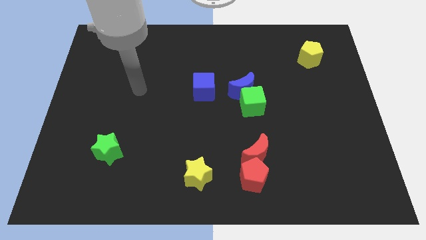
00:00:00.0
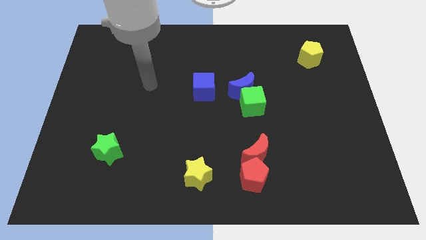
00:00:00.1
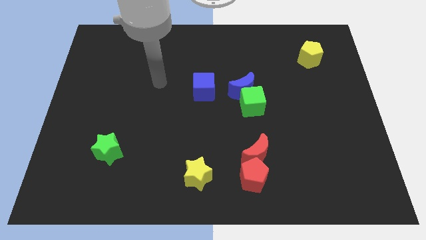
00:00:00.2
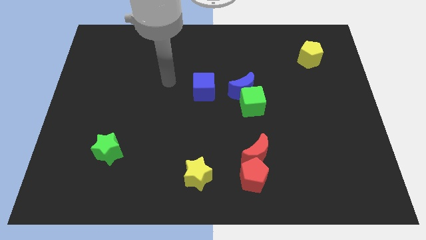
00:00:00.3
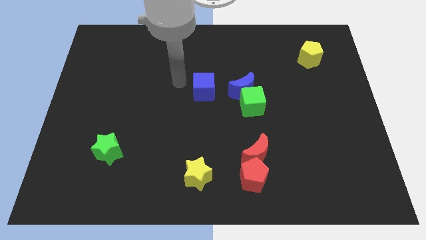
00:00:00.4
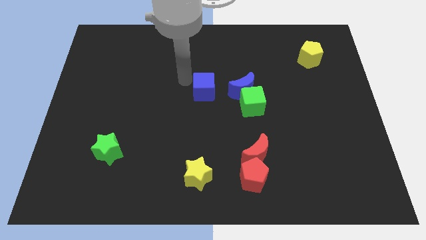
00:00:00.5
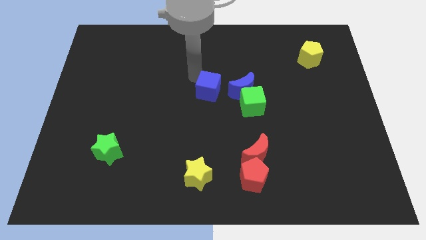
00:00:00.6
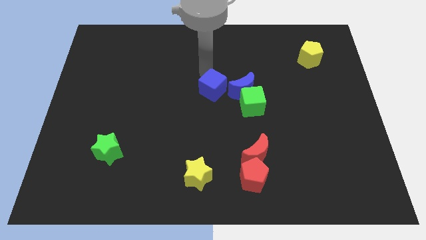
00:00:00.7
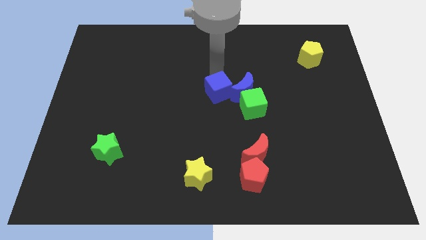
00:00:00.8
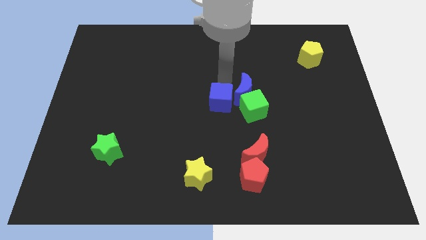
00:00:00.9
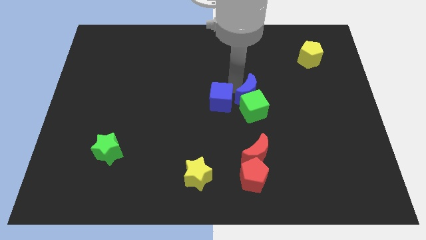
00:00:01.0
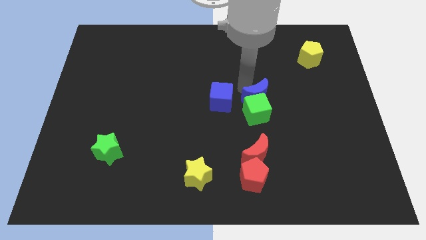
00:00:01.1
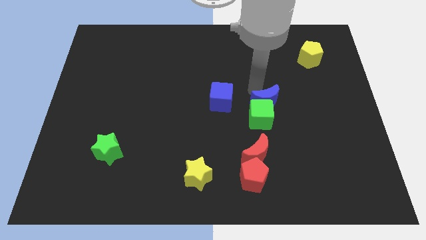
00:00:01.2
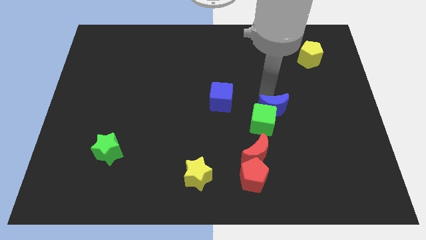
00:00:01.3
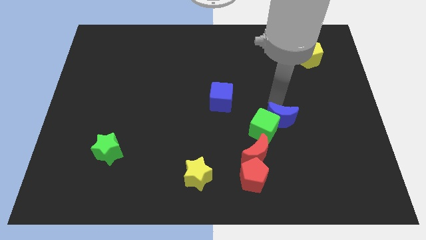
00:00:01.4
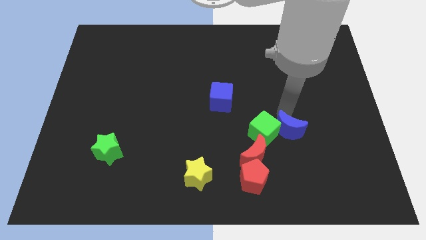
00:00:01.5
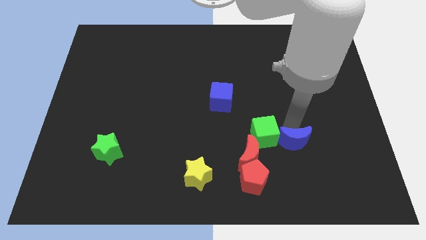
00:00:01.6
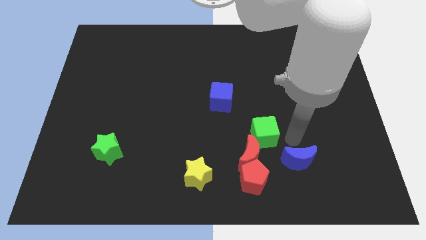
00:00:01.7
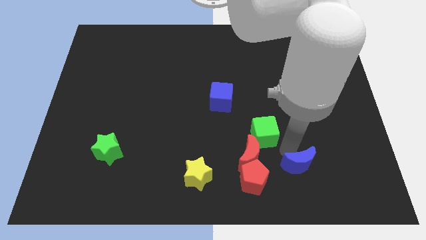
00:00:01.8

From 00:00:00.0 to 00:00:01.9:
separate the green cube from the blue moon

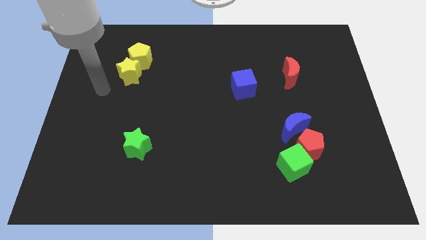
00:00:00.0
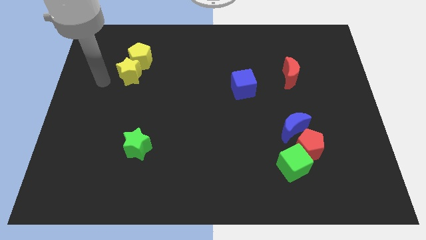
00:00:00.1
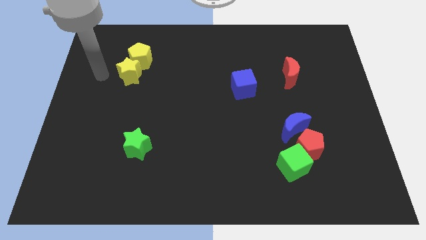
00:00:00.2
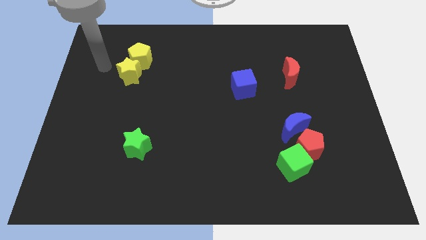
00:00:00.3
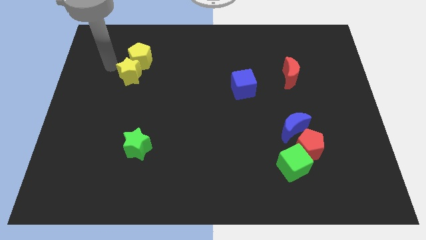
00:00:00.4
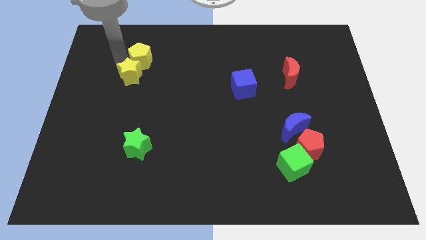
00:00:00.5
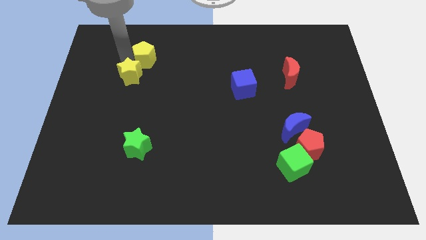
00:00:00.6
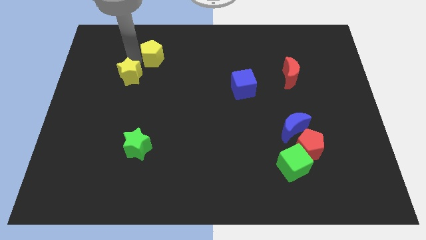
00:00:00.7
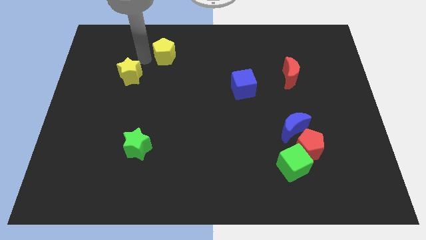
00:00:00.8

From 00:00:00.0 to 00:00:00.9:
separate the yellow star from the yellow pentagon

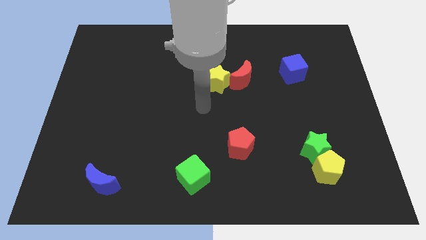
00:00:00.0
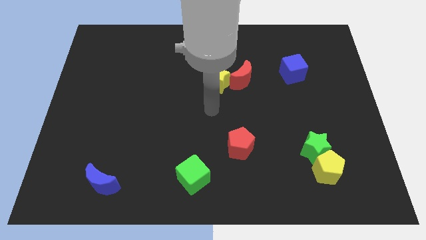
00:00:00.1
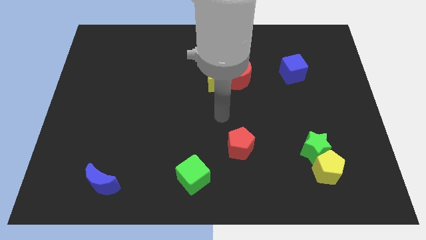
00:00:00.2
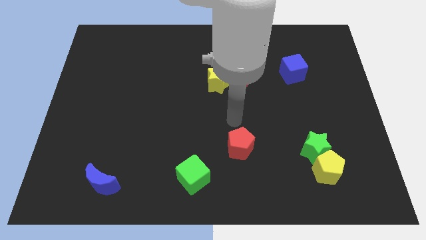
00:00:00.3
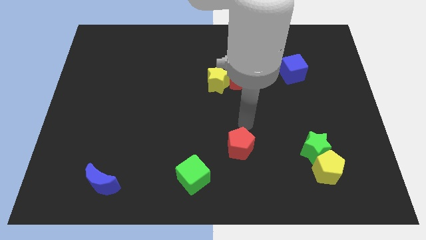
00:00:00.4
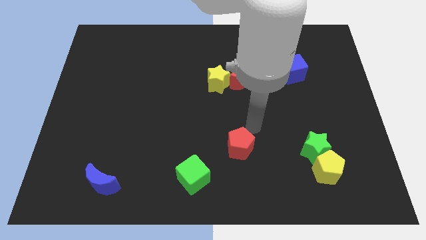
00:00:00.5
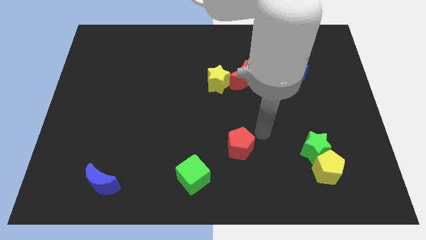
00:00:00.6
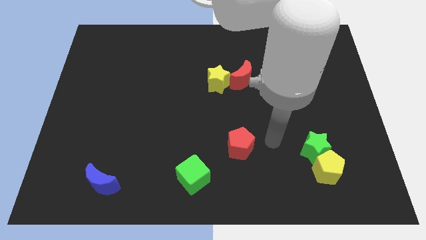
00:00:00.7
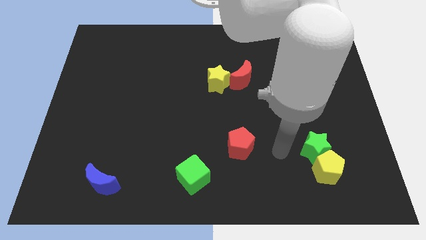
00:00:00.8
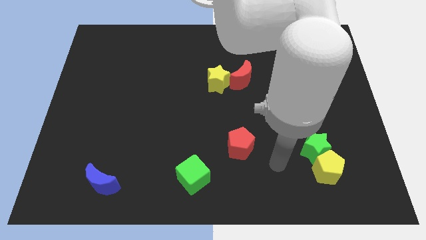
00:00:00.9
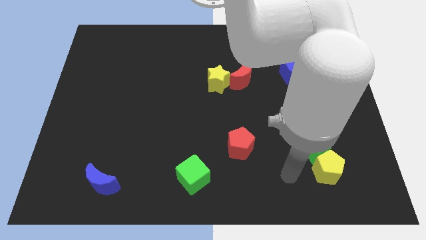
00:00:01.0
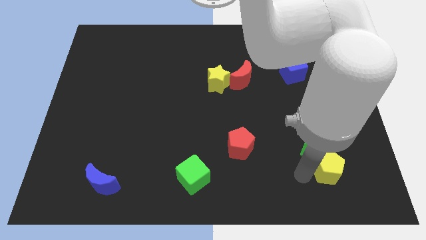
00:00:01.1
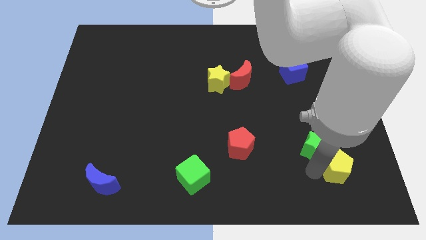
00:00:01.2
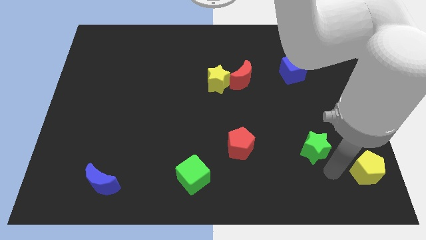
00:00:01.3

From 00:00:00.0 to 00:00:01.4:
pull the green star apart from the yellow pentagon

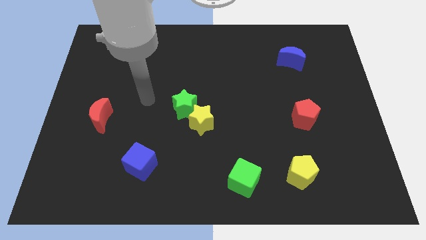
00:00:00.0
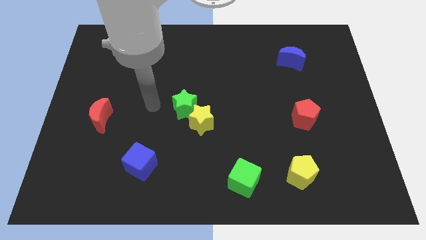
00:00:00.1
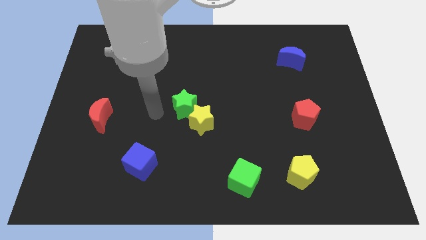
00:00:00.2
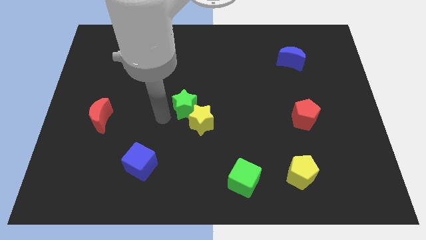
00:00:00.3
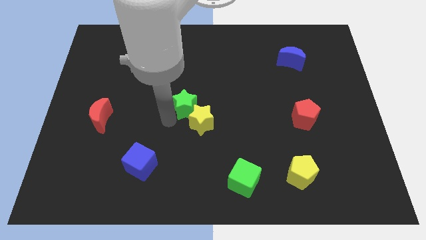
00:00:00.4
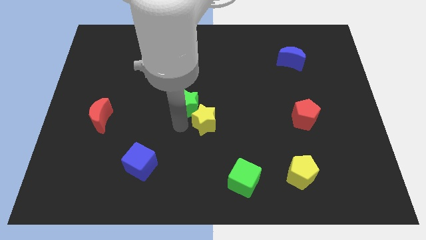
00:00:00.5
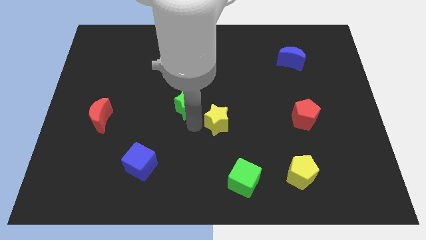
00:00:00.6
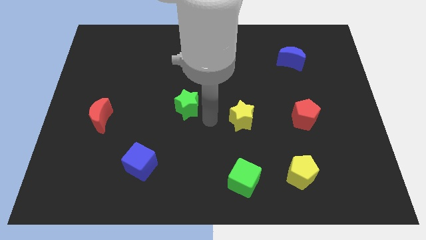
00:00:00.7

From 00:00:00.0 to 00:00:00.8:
pull the green star apart from the yellow star

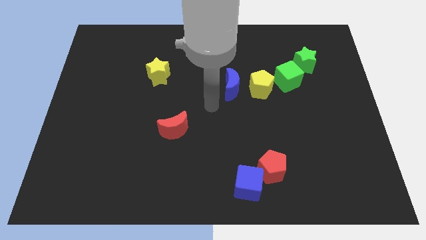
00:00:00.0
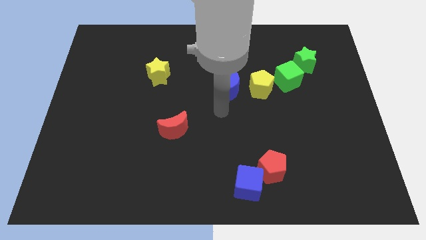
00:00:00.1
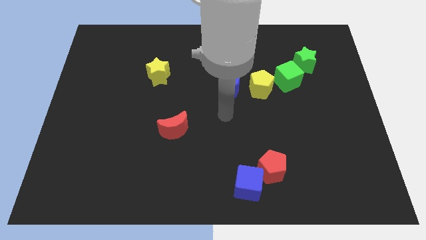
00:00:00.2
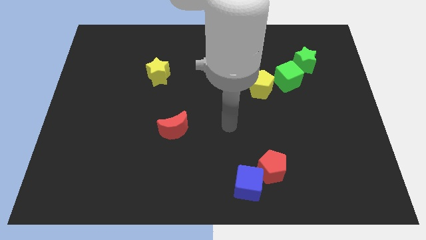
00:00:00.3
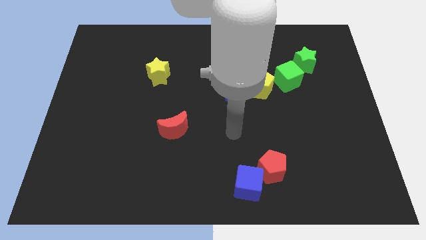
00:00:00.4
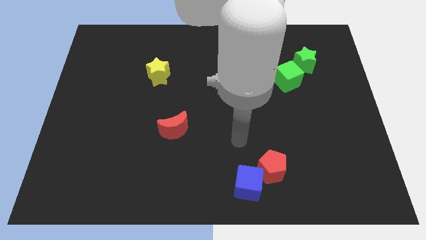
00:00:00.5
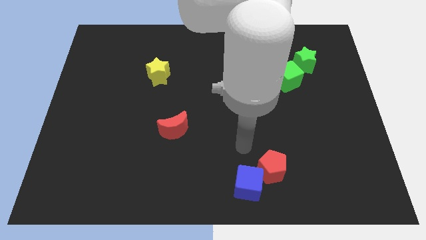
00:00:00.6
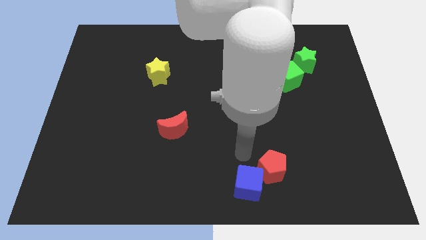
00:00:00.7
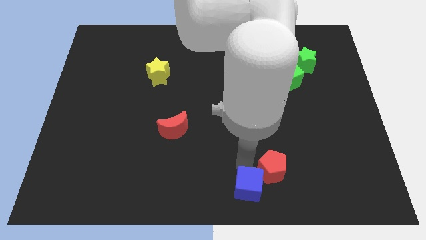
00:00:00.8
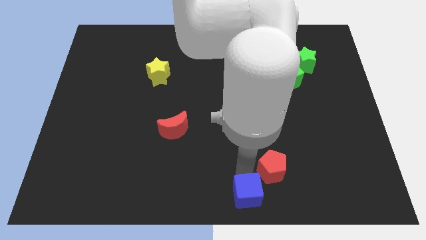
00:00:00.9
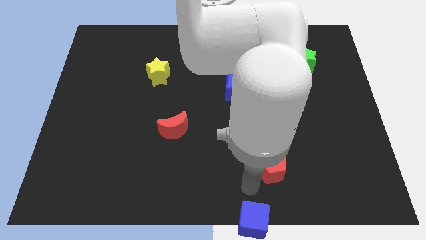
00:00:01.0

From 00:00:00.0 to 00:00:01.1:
move the red pentagon away from the blue cube

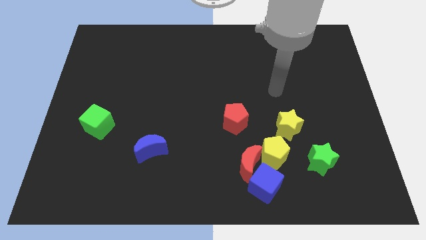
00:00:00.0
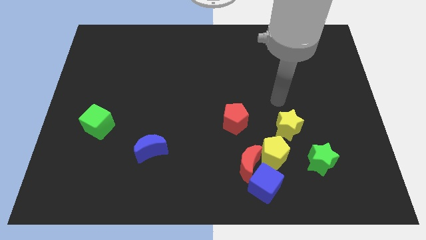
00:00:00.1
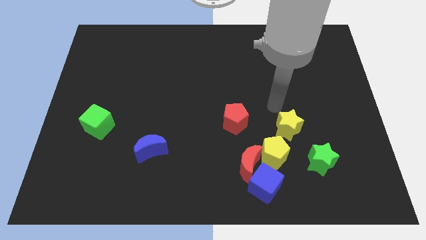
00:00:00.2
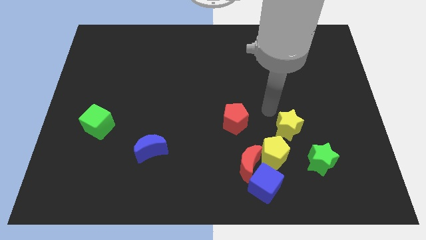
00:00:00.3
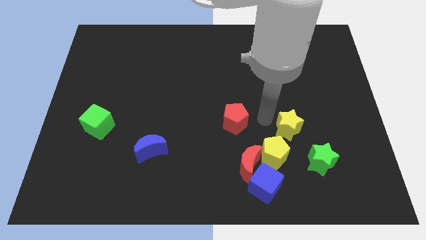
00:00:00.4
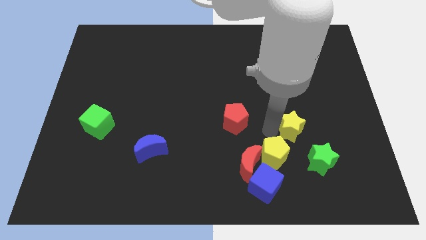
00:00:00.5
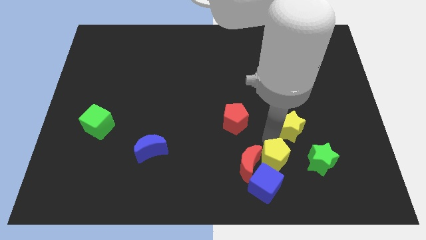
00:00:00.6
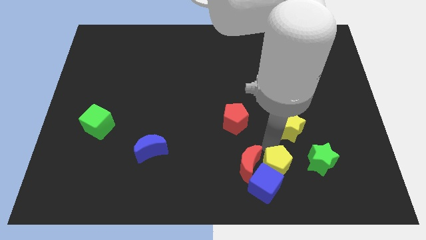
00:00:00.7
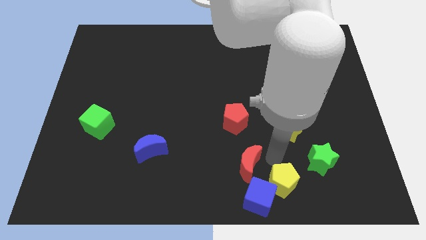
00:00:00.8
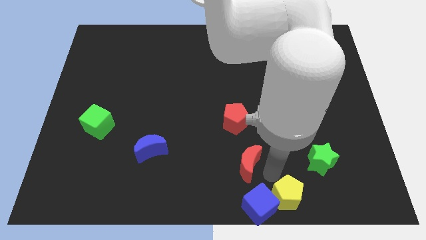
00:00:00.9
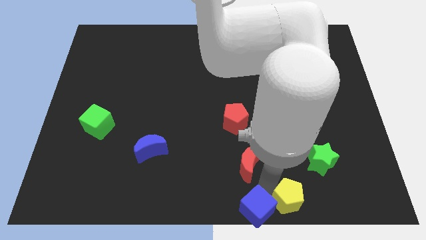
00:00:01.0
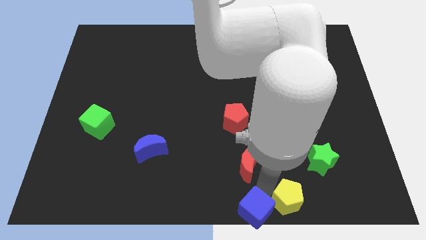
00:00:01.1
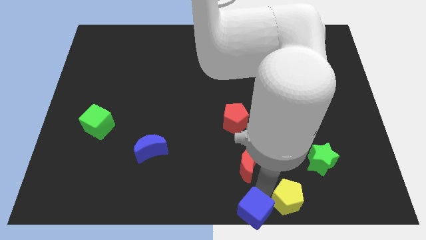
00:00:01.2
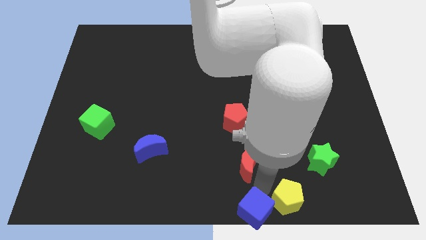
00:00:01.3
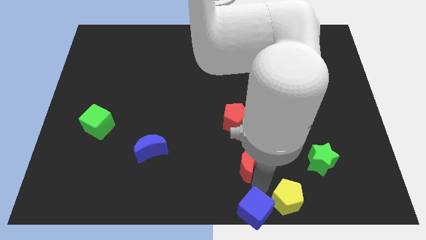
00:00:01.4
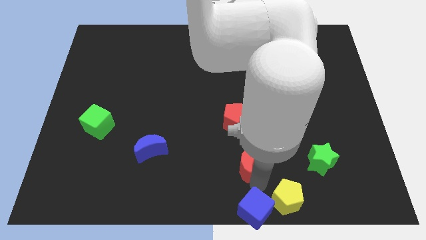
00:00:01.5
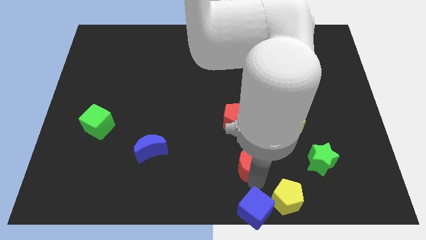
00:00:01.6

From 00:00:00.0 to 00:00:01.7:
pull the red moon apart from the blue cube and yellow pentagon

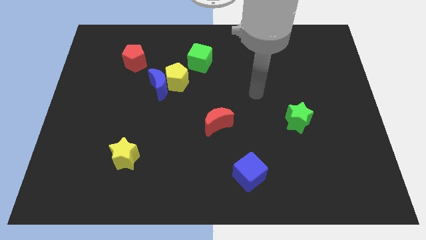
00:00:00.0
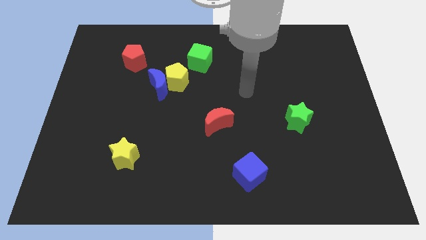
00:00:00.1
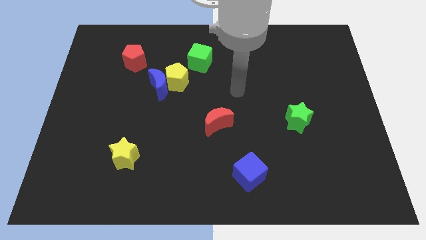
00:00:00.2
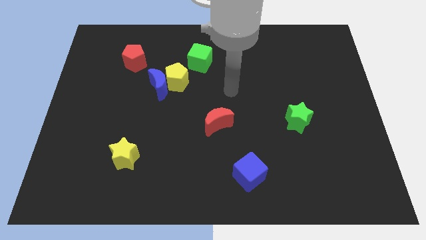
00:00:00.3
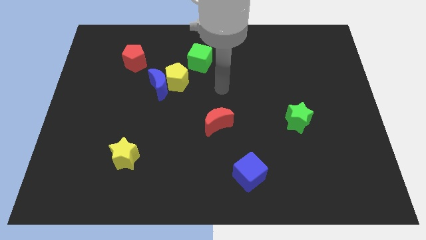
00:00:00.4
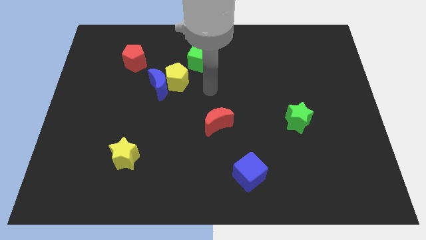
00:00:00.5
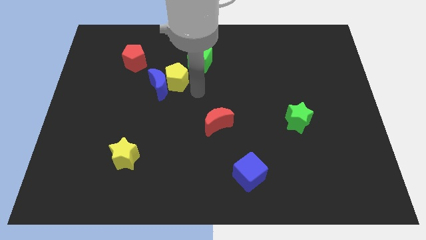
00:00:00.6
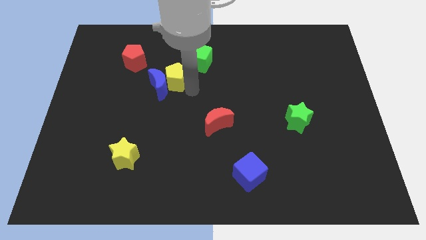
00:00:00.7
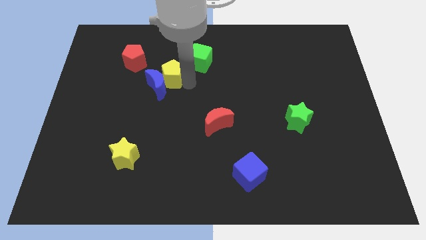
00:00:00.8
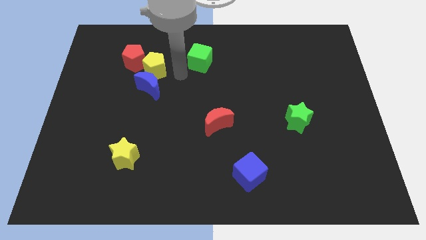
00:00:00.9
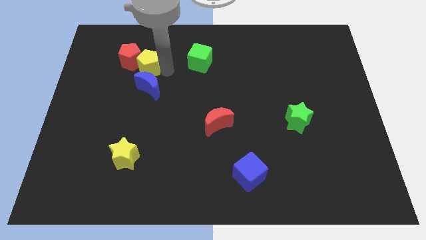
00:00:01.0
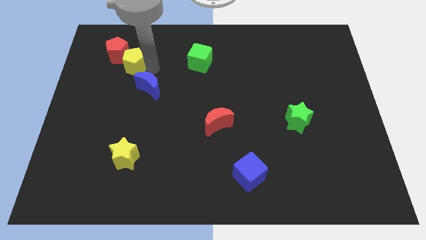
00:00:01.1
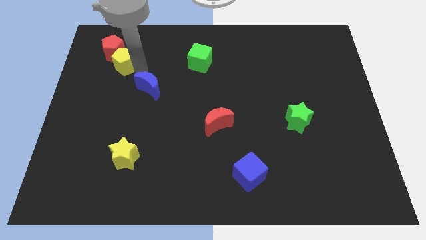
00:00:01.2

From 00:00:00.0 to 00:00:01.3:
move the blue moon away from the yellow pentagon

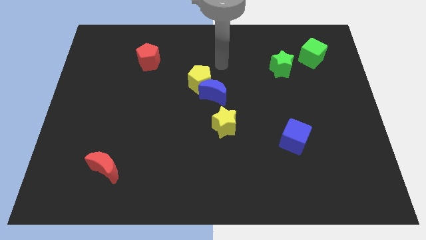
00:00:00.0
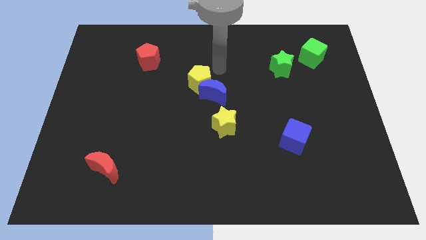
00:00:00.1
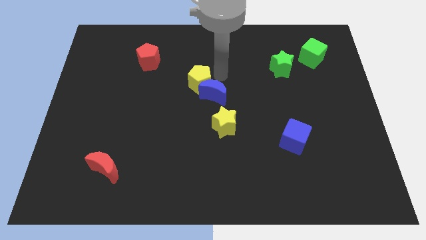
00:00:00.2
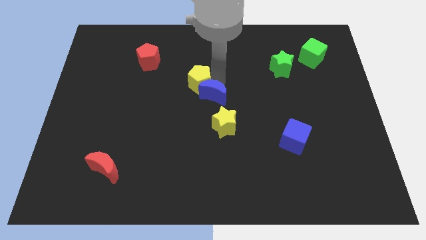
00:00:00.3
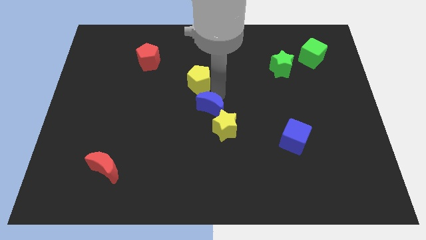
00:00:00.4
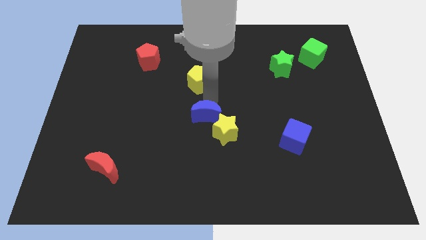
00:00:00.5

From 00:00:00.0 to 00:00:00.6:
pull the yellow pentagon apart from the blue moon
